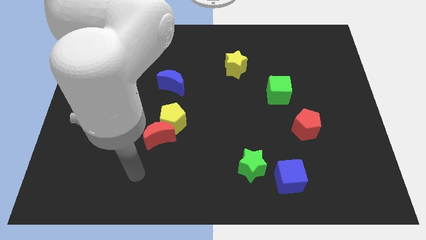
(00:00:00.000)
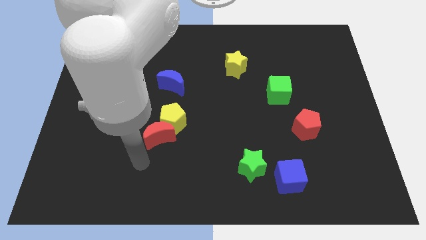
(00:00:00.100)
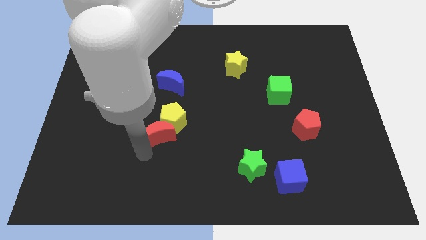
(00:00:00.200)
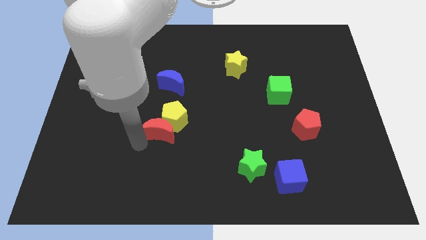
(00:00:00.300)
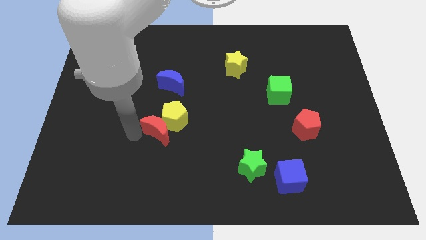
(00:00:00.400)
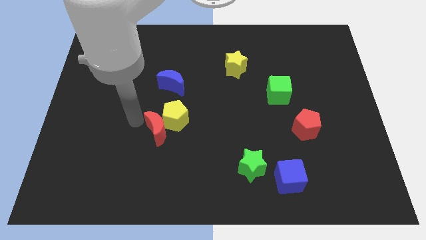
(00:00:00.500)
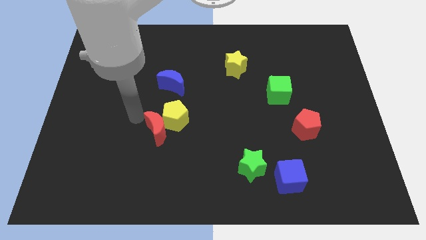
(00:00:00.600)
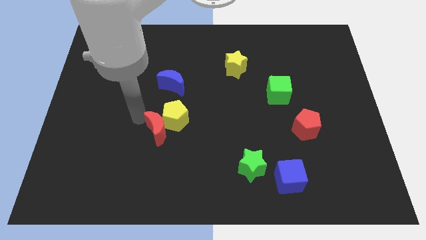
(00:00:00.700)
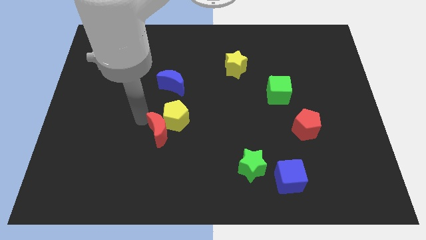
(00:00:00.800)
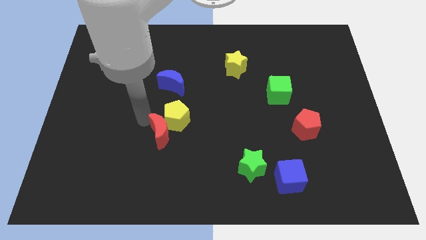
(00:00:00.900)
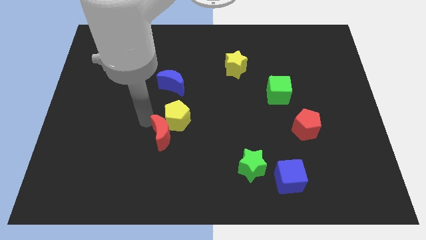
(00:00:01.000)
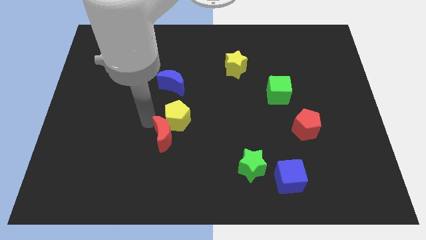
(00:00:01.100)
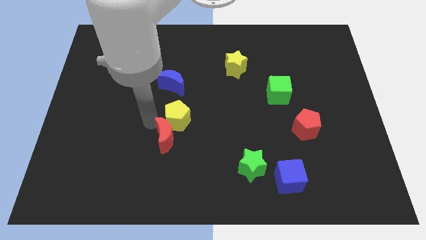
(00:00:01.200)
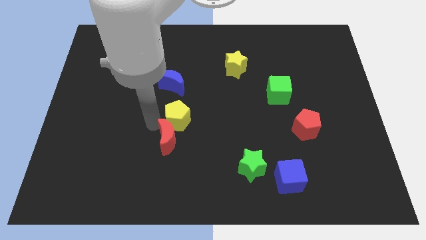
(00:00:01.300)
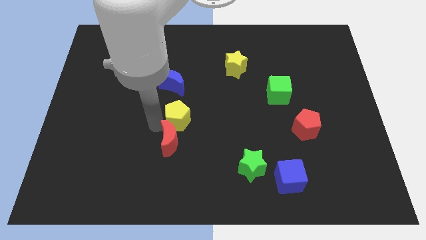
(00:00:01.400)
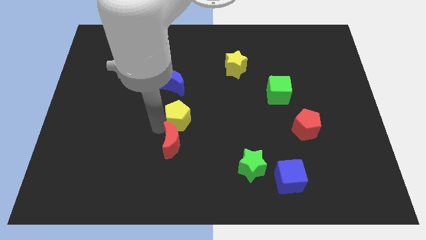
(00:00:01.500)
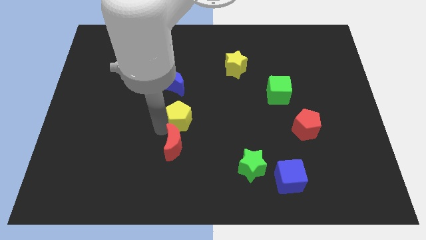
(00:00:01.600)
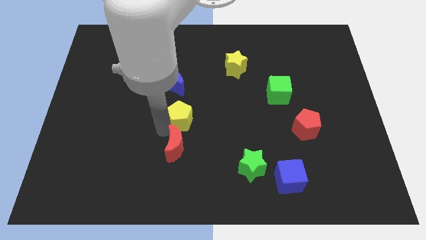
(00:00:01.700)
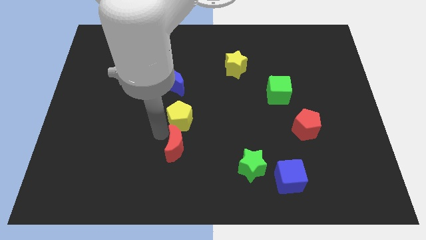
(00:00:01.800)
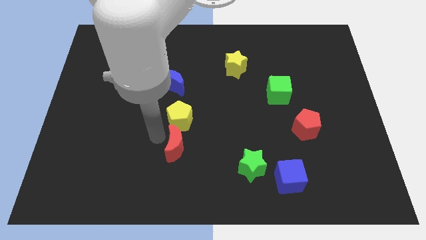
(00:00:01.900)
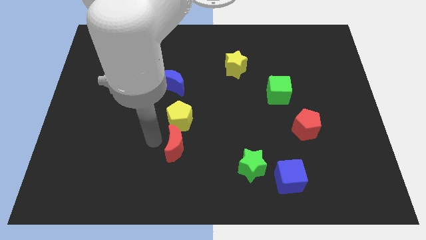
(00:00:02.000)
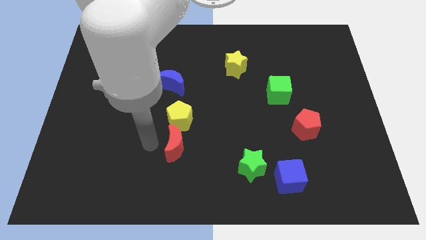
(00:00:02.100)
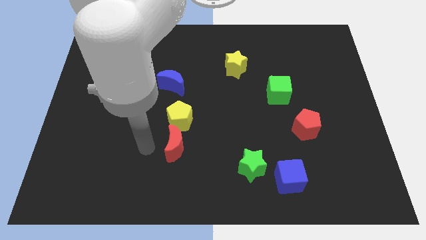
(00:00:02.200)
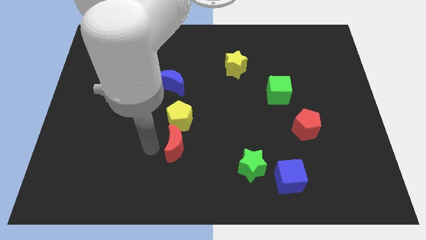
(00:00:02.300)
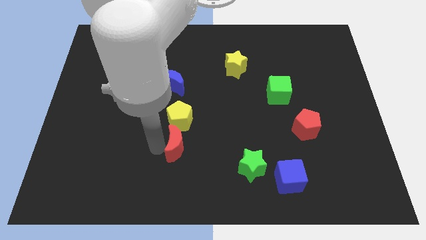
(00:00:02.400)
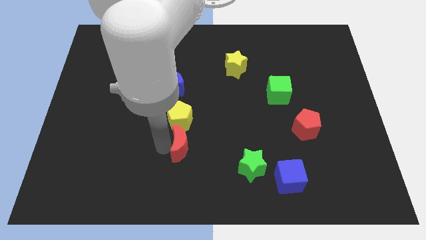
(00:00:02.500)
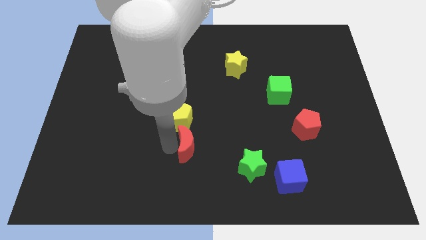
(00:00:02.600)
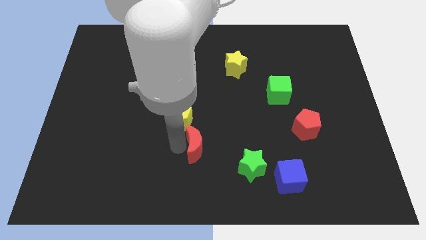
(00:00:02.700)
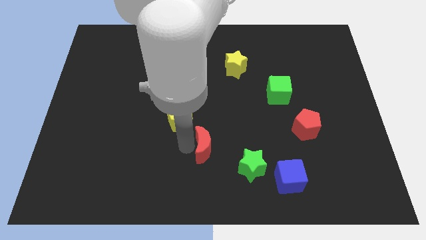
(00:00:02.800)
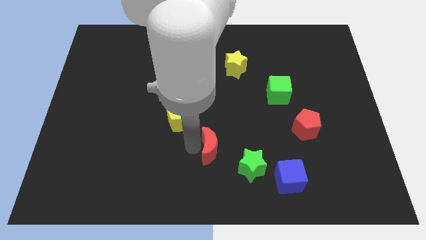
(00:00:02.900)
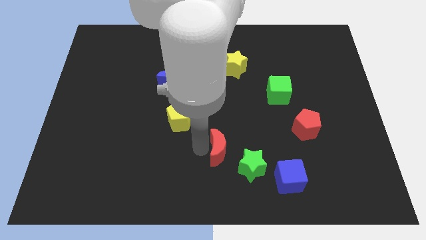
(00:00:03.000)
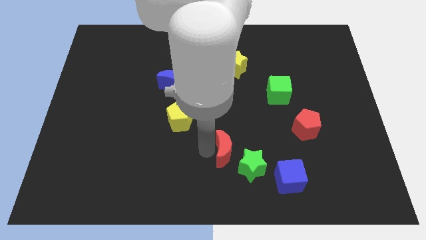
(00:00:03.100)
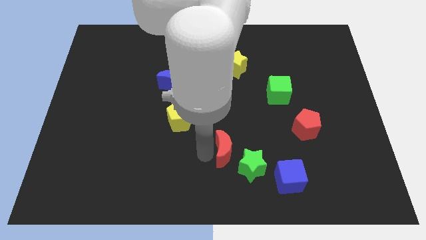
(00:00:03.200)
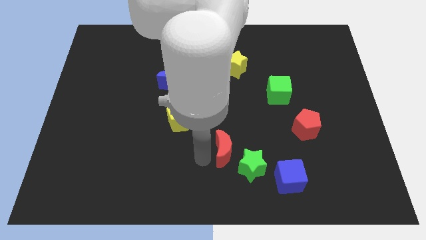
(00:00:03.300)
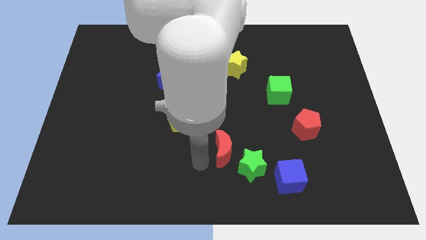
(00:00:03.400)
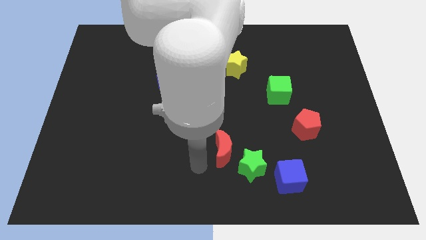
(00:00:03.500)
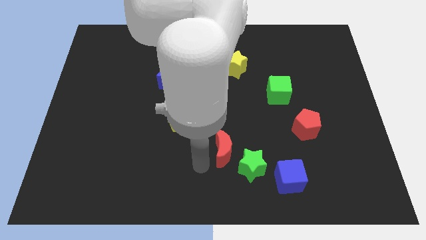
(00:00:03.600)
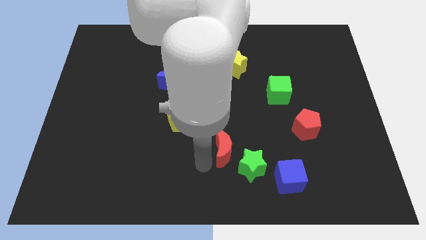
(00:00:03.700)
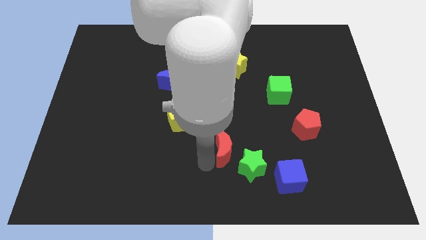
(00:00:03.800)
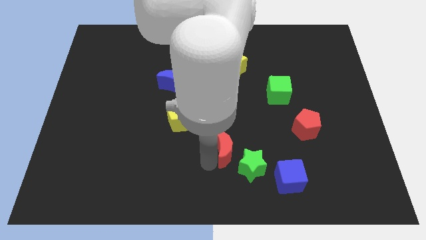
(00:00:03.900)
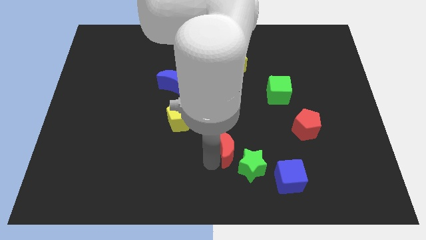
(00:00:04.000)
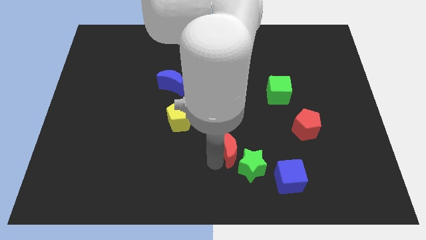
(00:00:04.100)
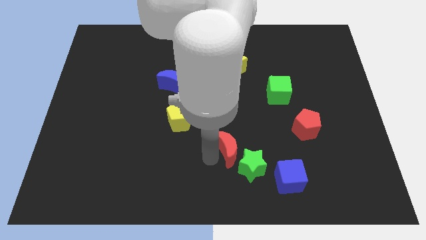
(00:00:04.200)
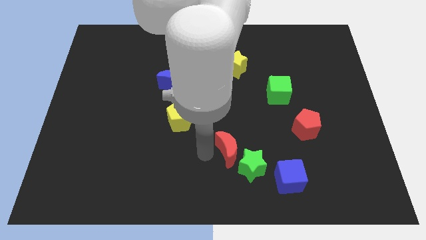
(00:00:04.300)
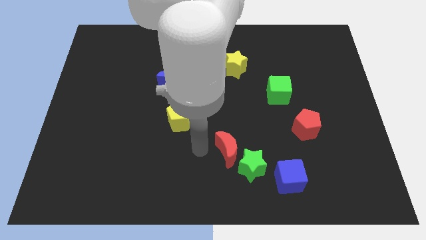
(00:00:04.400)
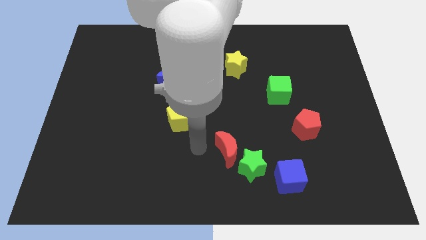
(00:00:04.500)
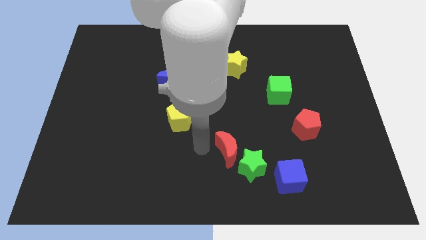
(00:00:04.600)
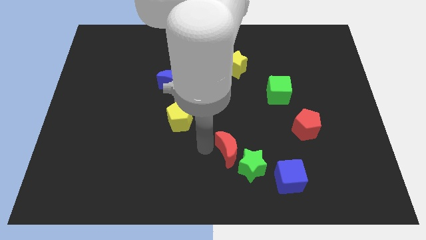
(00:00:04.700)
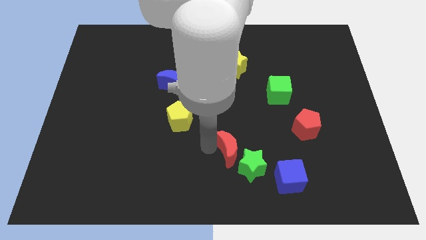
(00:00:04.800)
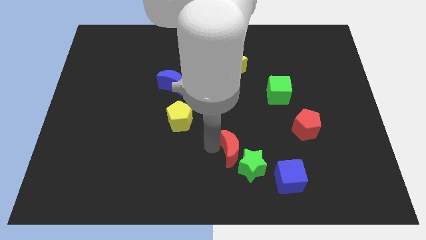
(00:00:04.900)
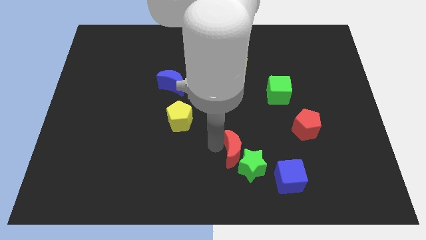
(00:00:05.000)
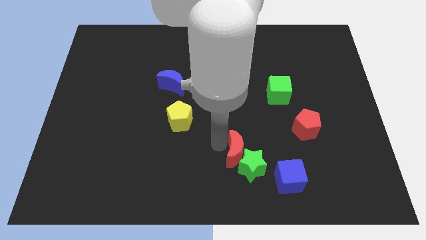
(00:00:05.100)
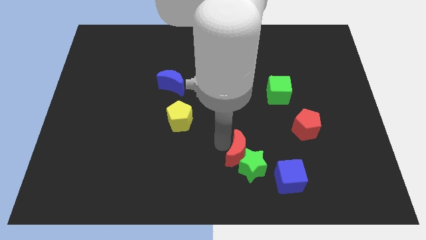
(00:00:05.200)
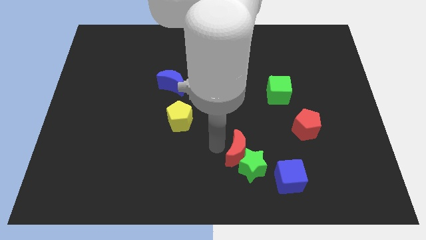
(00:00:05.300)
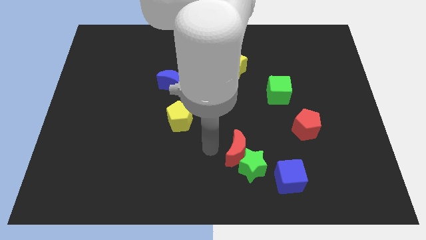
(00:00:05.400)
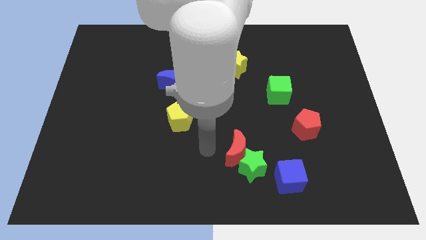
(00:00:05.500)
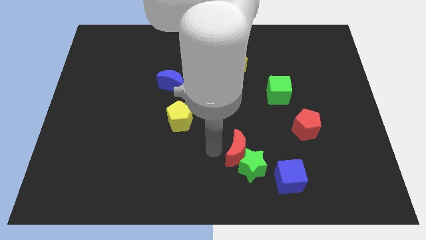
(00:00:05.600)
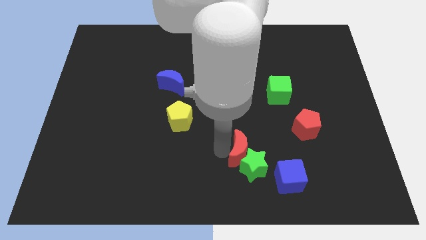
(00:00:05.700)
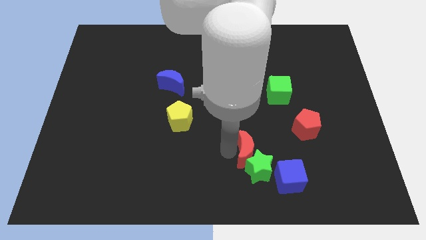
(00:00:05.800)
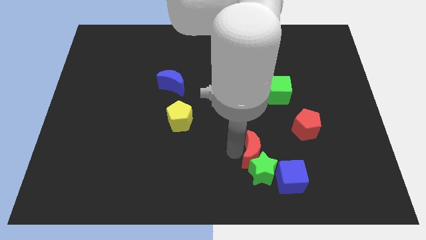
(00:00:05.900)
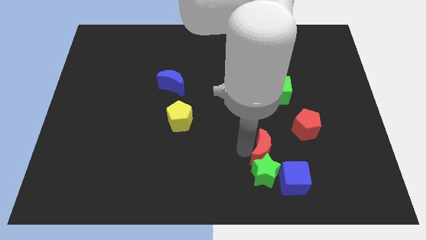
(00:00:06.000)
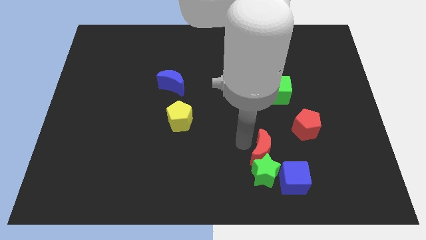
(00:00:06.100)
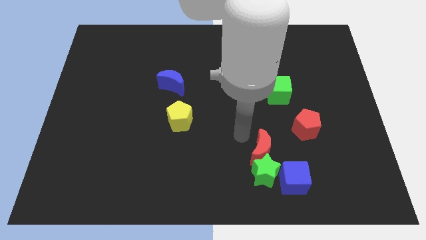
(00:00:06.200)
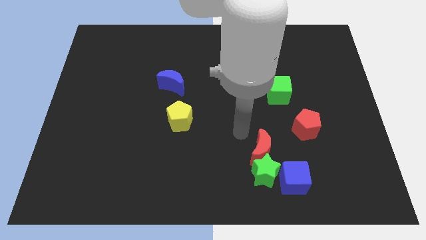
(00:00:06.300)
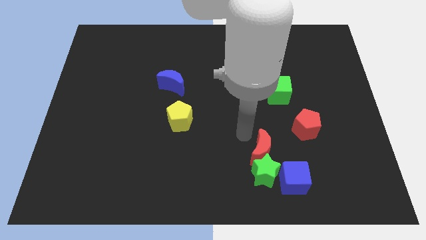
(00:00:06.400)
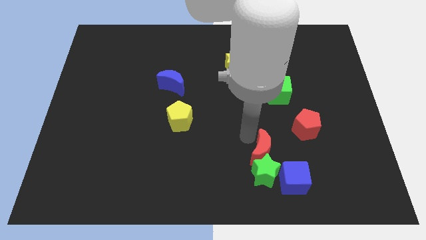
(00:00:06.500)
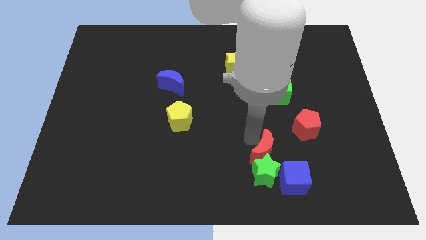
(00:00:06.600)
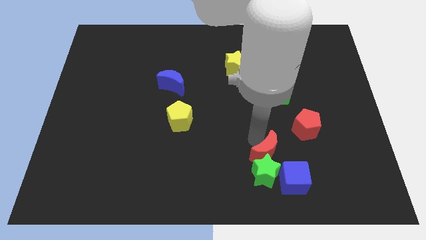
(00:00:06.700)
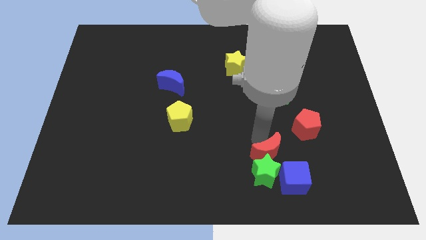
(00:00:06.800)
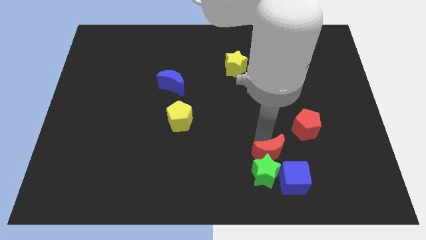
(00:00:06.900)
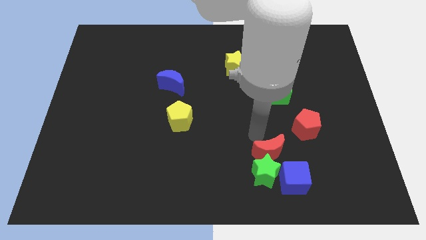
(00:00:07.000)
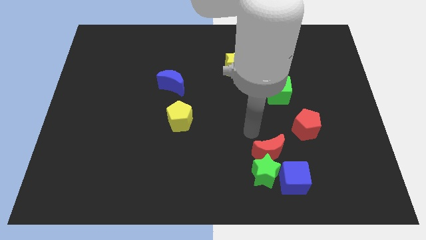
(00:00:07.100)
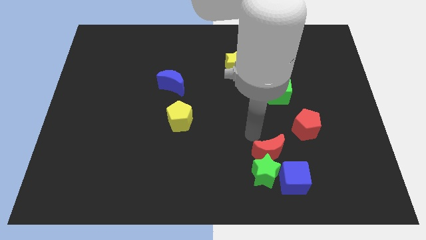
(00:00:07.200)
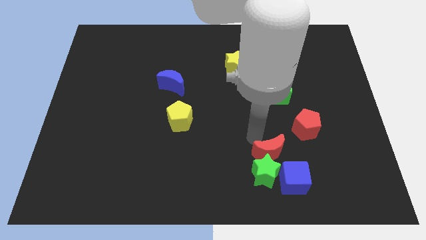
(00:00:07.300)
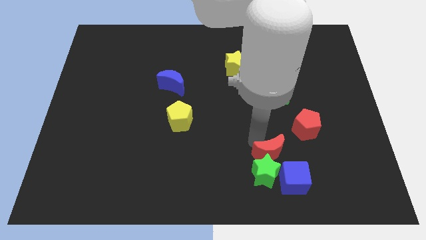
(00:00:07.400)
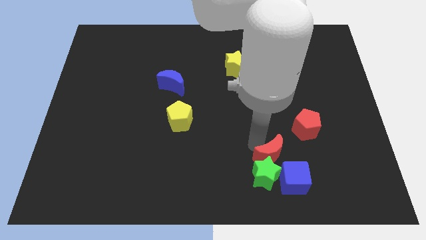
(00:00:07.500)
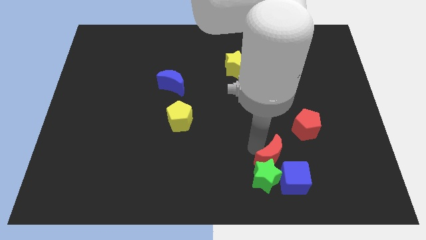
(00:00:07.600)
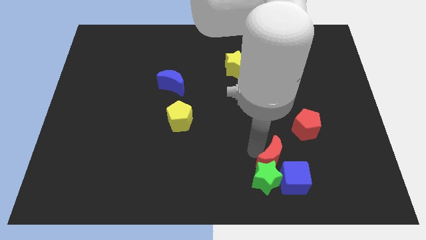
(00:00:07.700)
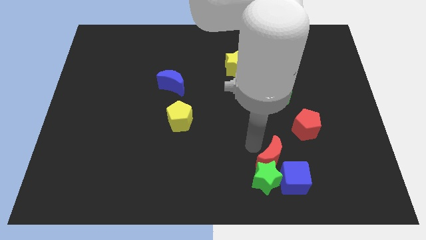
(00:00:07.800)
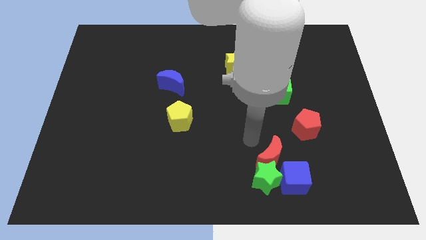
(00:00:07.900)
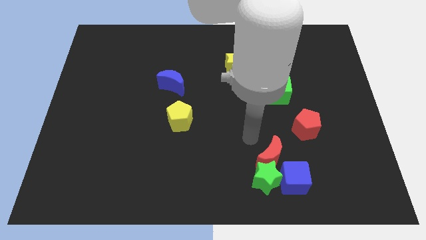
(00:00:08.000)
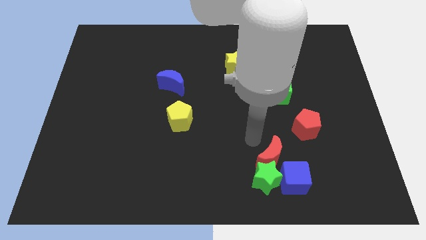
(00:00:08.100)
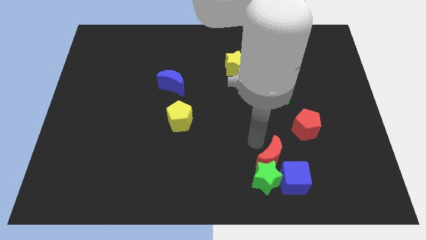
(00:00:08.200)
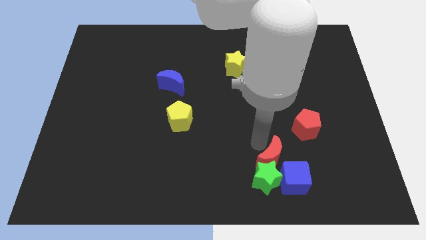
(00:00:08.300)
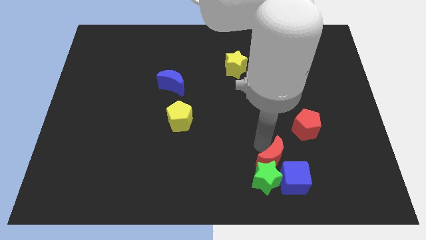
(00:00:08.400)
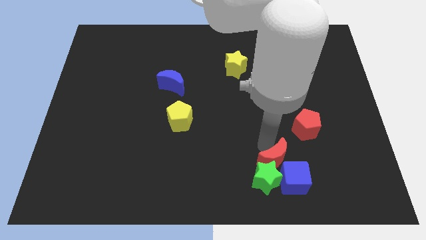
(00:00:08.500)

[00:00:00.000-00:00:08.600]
put the red moon towards the blue cube
